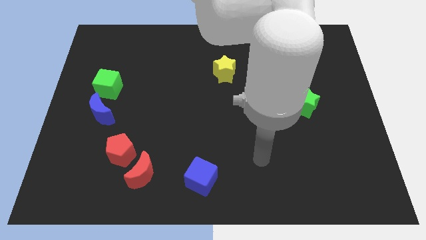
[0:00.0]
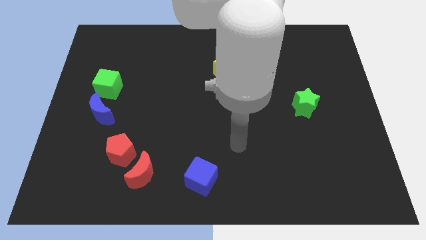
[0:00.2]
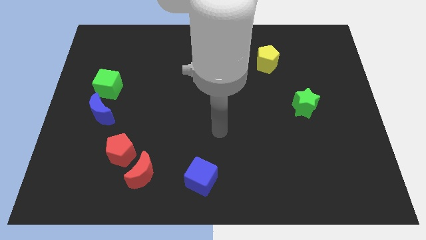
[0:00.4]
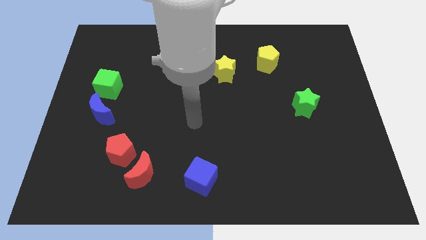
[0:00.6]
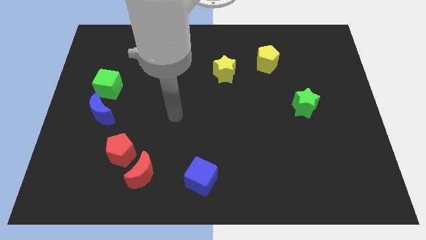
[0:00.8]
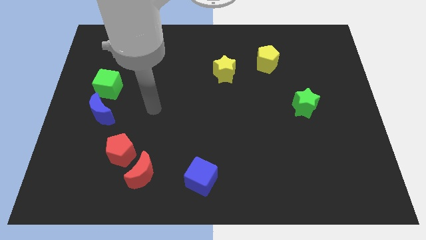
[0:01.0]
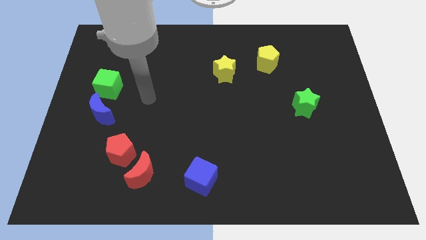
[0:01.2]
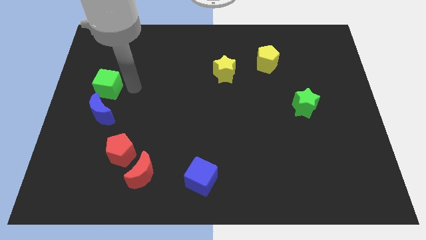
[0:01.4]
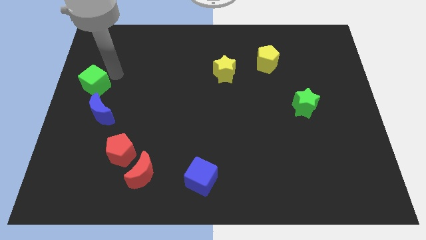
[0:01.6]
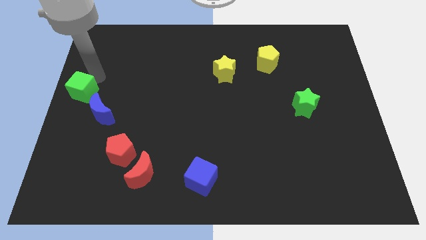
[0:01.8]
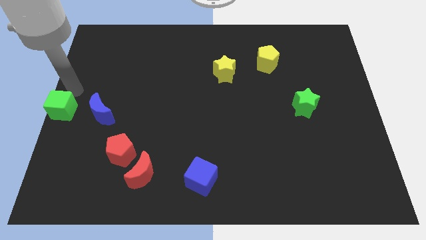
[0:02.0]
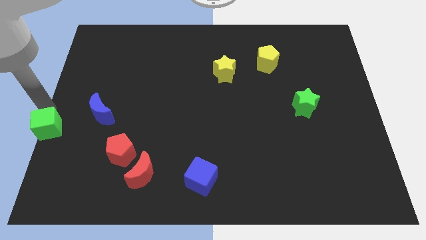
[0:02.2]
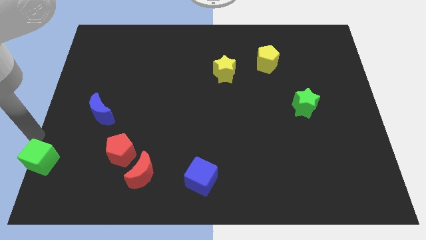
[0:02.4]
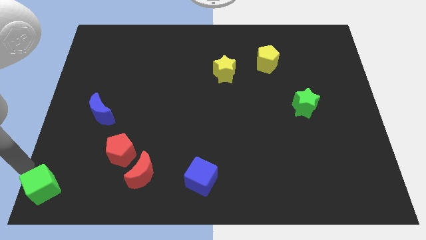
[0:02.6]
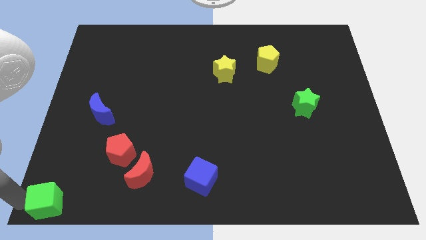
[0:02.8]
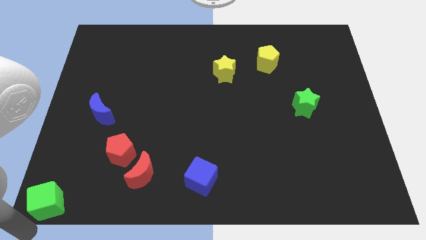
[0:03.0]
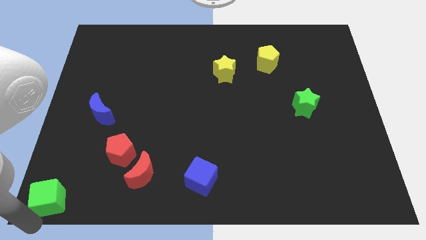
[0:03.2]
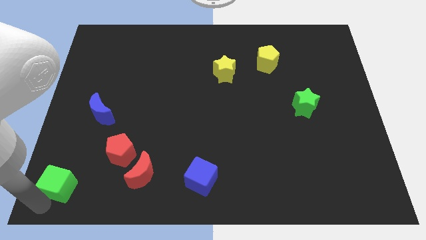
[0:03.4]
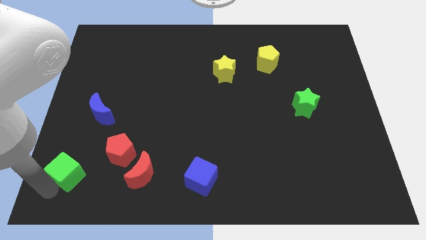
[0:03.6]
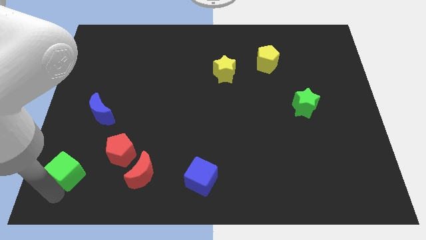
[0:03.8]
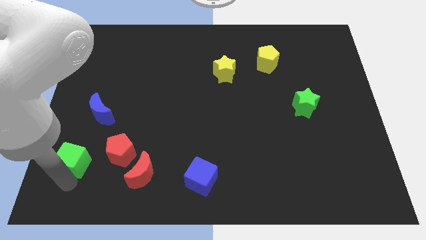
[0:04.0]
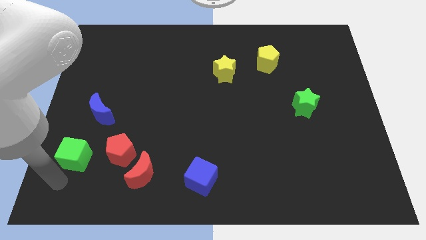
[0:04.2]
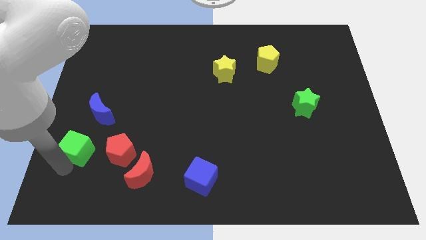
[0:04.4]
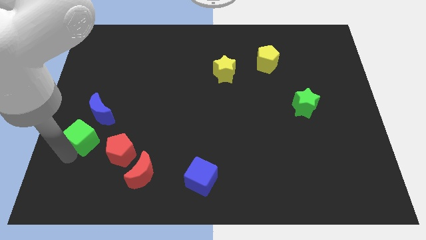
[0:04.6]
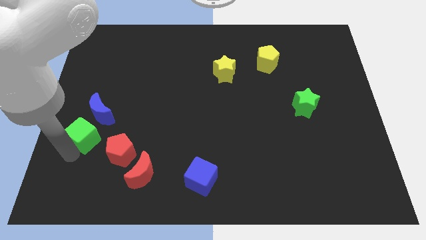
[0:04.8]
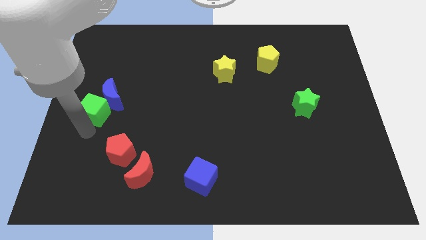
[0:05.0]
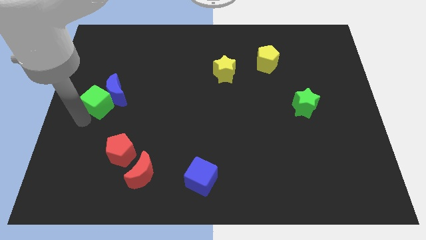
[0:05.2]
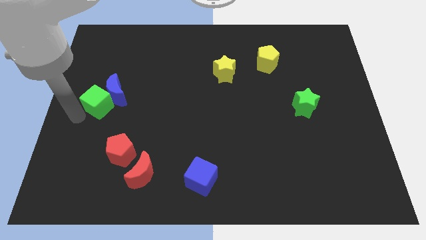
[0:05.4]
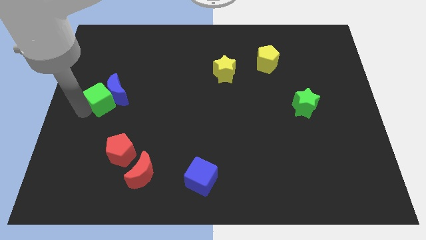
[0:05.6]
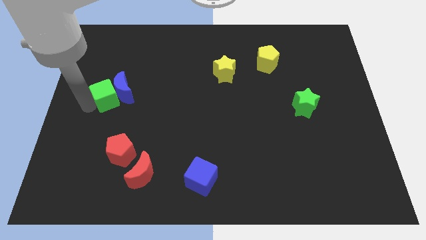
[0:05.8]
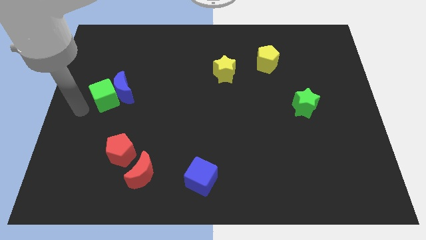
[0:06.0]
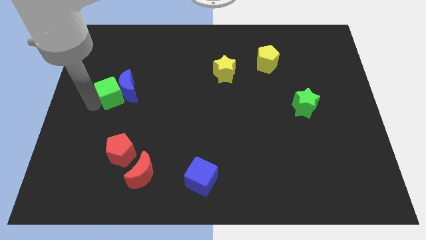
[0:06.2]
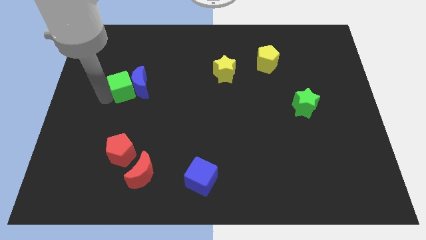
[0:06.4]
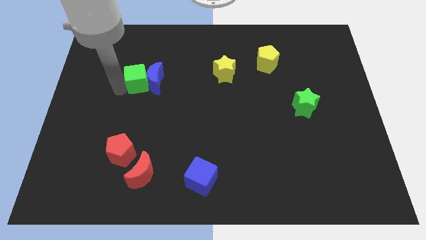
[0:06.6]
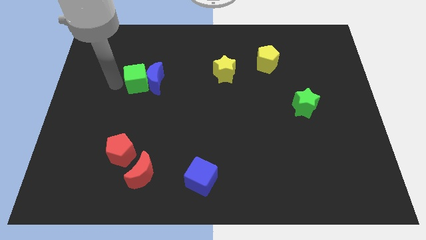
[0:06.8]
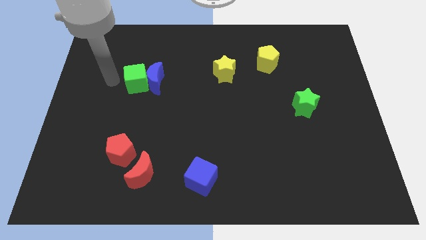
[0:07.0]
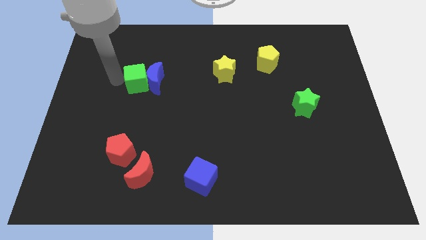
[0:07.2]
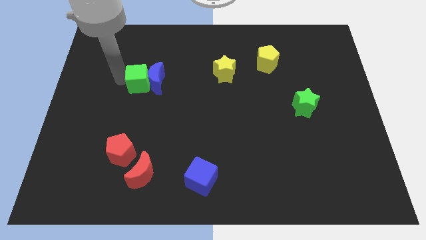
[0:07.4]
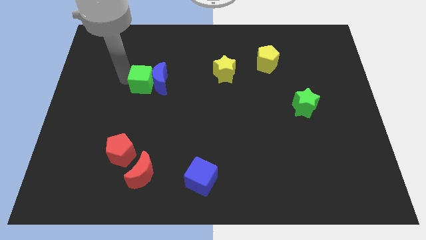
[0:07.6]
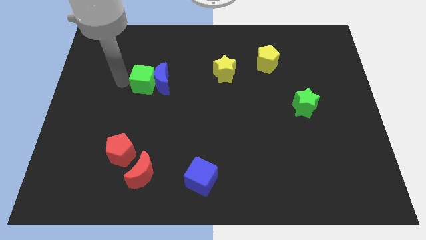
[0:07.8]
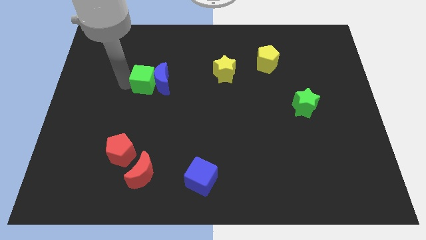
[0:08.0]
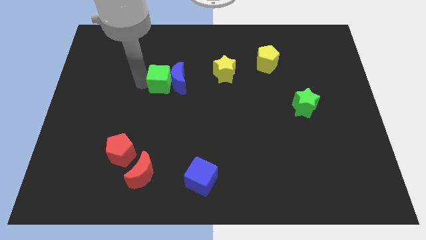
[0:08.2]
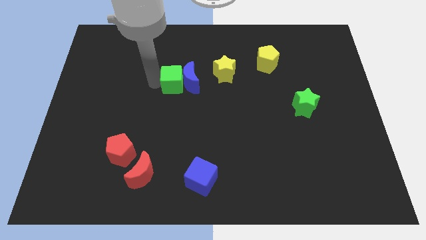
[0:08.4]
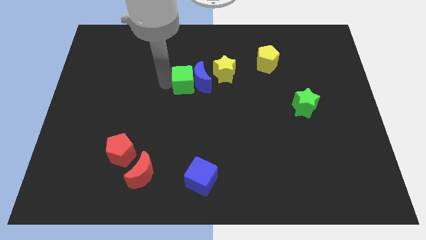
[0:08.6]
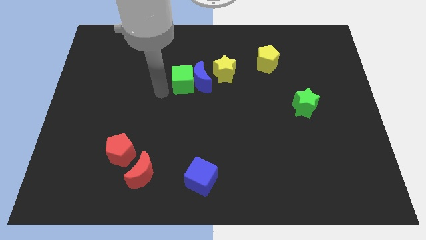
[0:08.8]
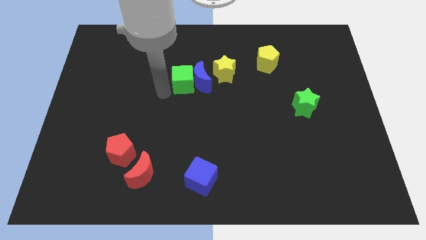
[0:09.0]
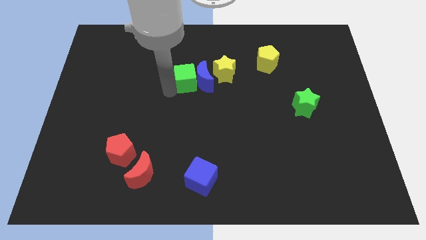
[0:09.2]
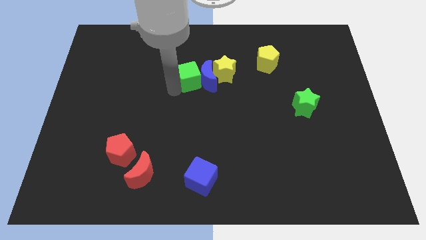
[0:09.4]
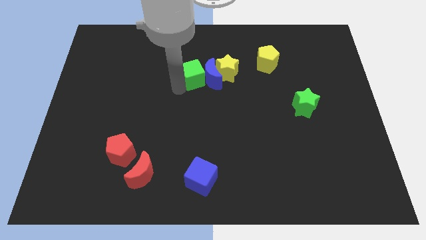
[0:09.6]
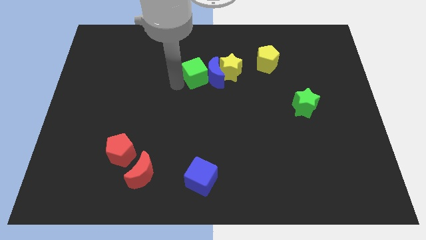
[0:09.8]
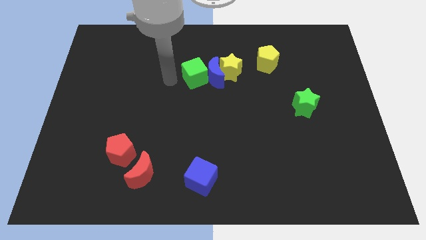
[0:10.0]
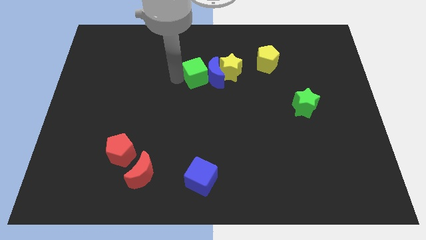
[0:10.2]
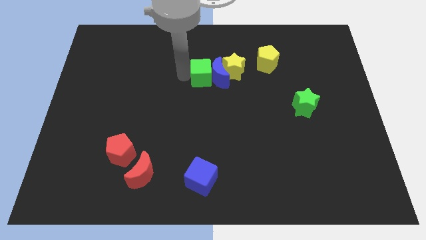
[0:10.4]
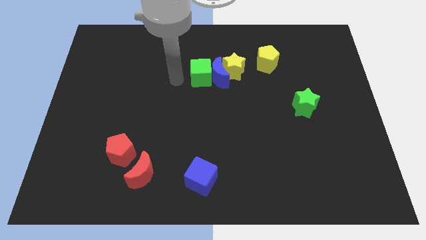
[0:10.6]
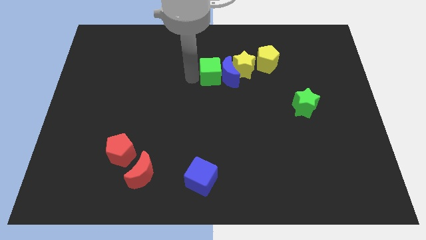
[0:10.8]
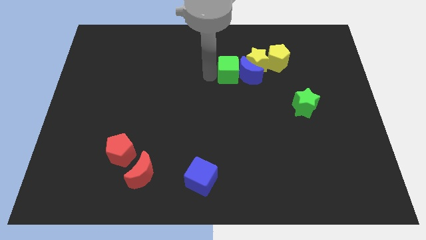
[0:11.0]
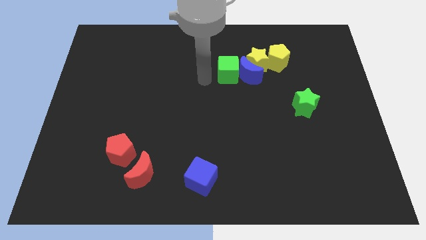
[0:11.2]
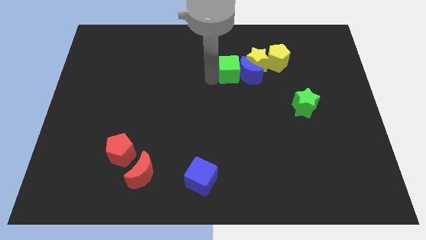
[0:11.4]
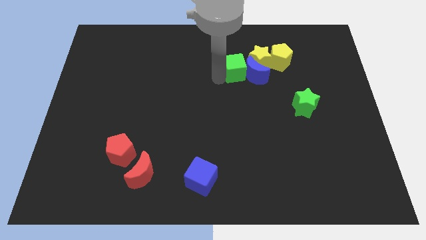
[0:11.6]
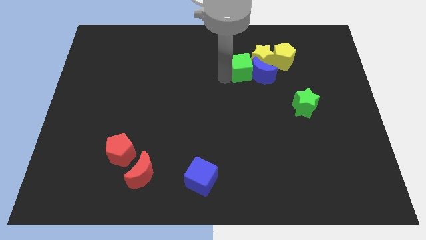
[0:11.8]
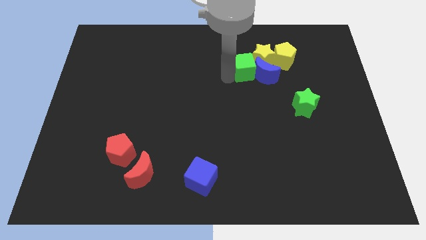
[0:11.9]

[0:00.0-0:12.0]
move the green cube close to the yellow star

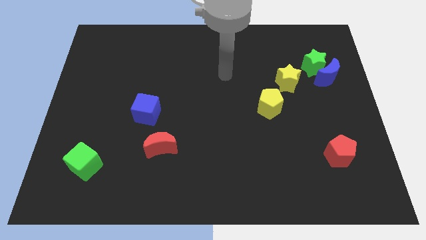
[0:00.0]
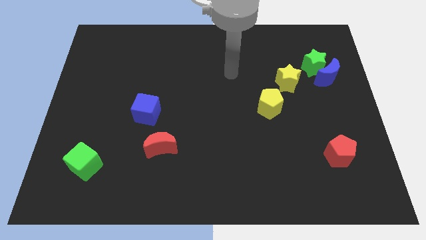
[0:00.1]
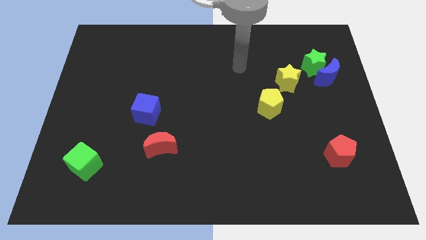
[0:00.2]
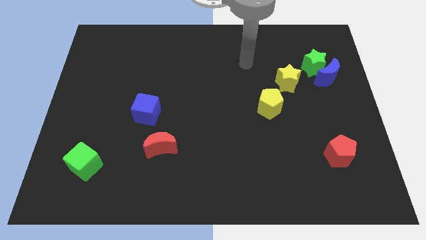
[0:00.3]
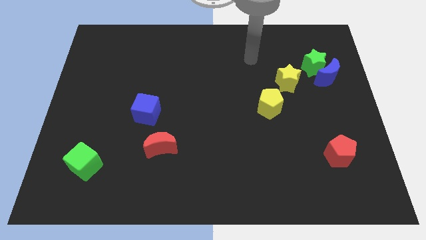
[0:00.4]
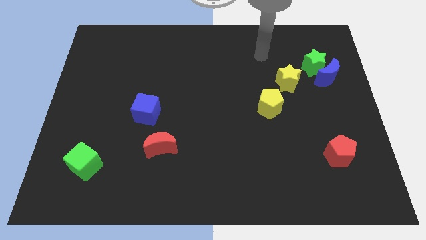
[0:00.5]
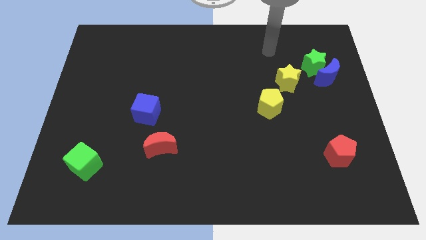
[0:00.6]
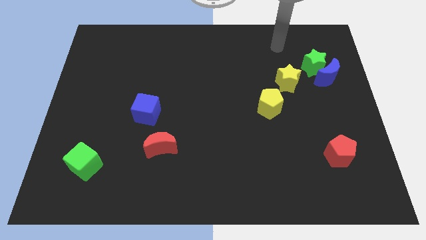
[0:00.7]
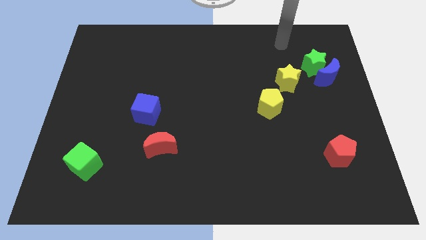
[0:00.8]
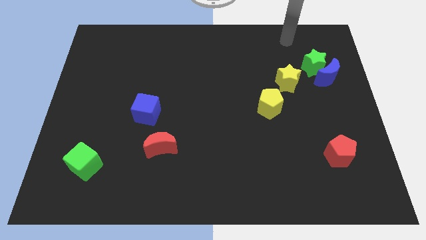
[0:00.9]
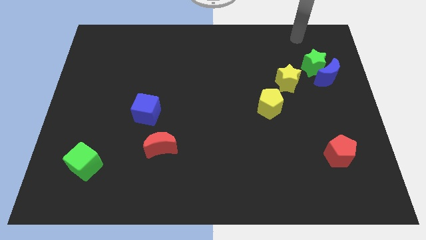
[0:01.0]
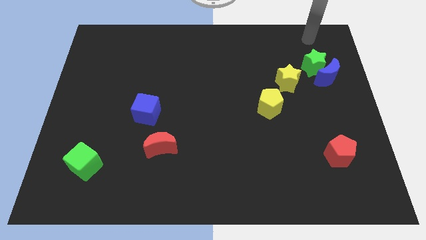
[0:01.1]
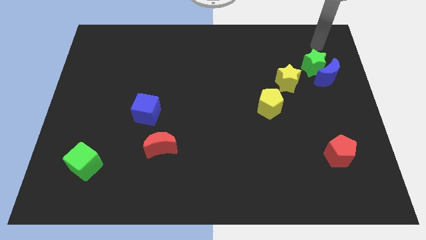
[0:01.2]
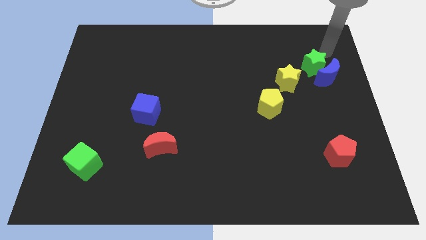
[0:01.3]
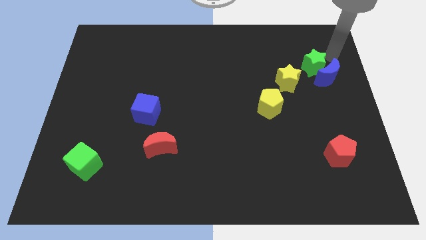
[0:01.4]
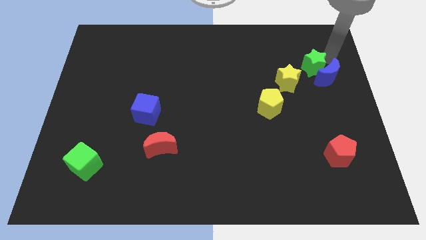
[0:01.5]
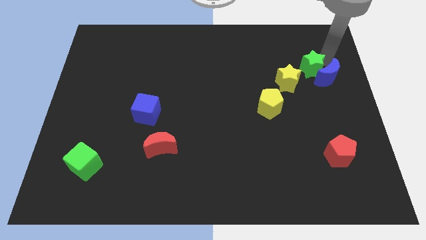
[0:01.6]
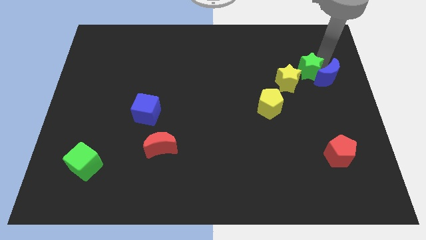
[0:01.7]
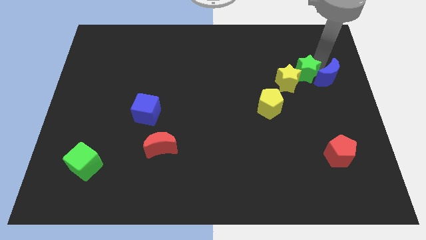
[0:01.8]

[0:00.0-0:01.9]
move the green star close to the yellow star
